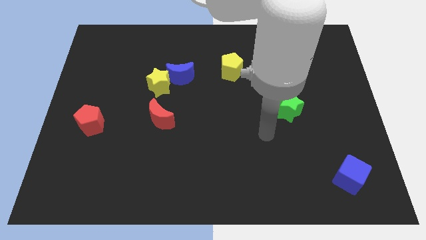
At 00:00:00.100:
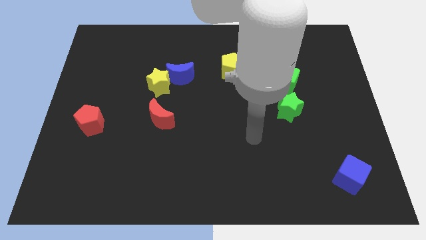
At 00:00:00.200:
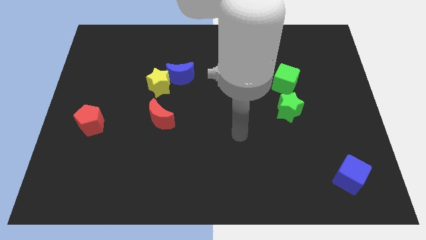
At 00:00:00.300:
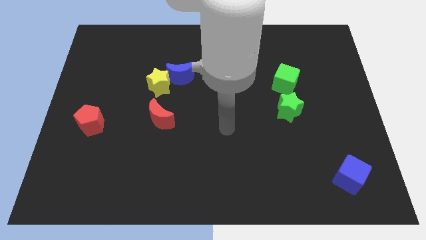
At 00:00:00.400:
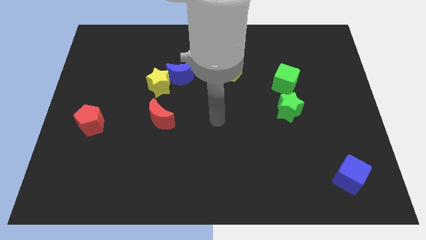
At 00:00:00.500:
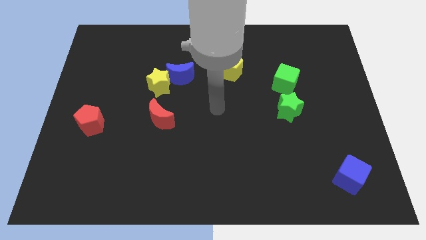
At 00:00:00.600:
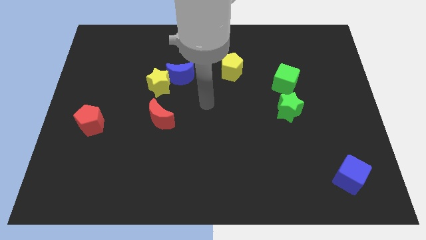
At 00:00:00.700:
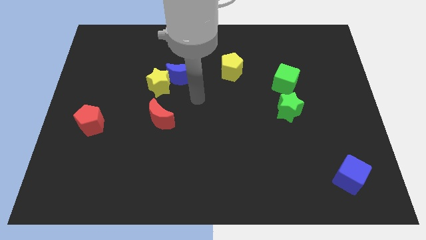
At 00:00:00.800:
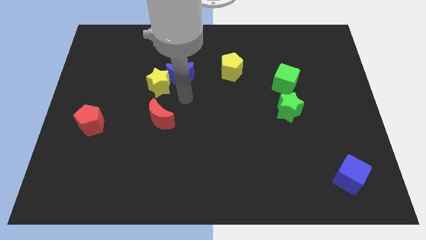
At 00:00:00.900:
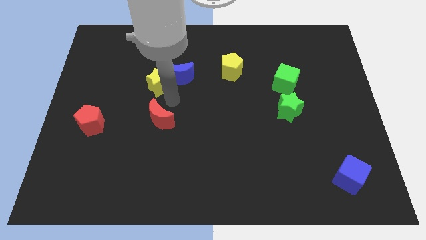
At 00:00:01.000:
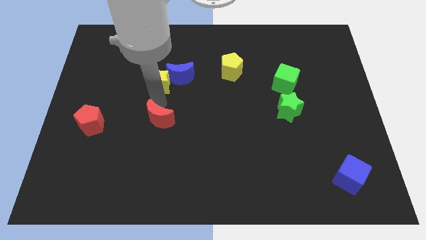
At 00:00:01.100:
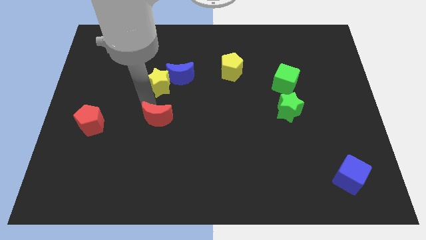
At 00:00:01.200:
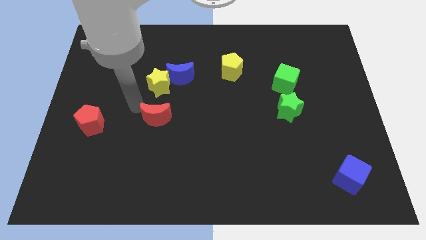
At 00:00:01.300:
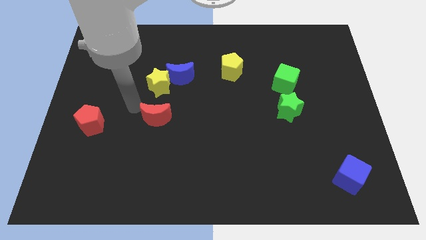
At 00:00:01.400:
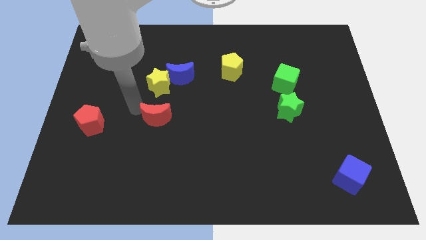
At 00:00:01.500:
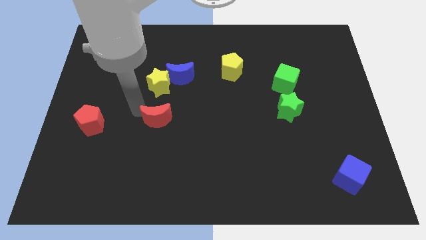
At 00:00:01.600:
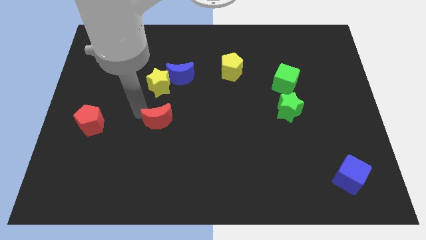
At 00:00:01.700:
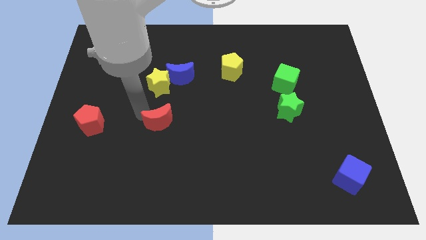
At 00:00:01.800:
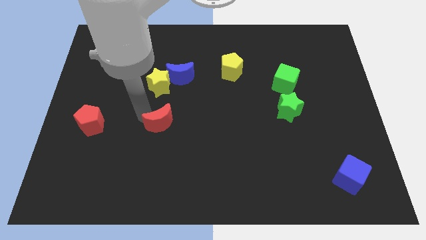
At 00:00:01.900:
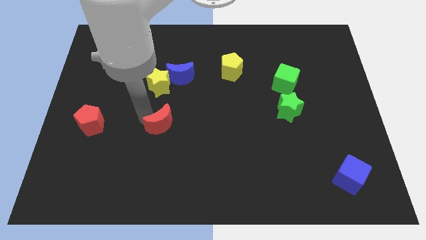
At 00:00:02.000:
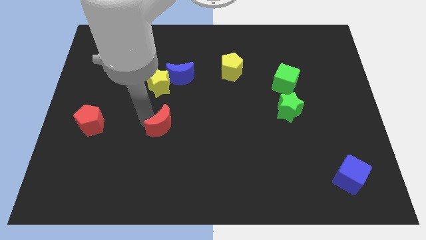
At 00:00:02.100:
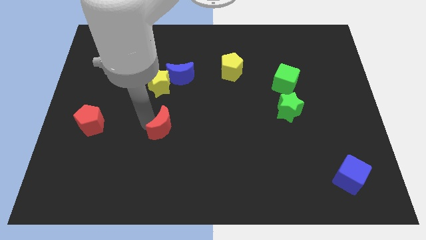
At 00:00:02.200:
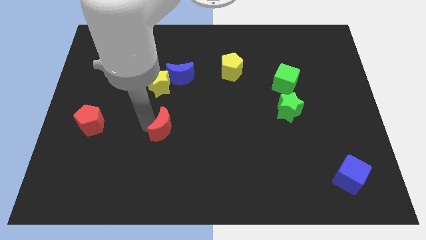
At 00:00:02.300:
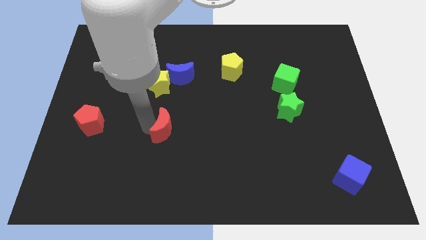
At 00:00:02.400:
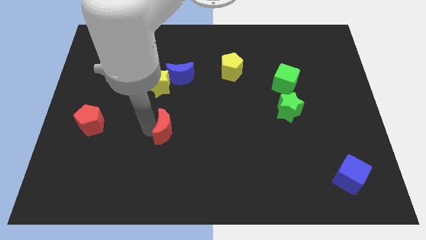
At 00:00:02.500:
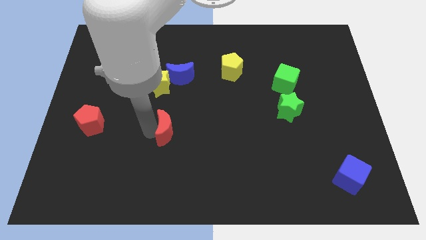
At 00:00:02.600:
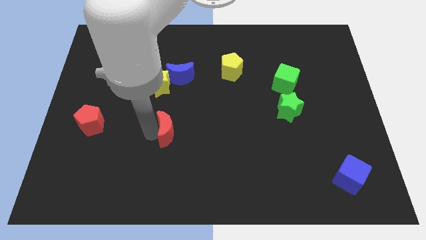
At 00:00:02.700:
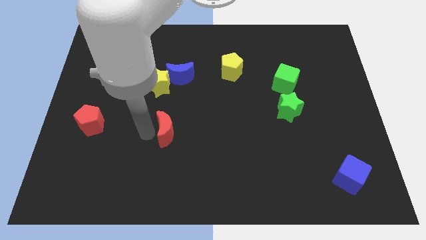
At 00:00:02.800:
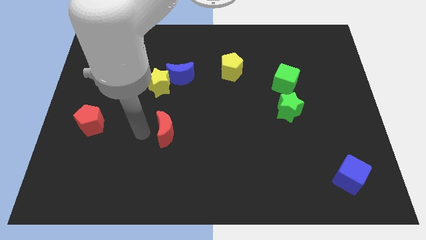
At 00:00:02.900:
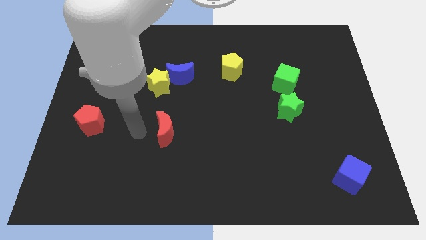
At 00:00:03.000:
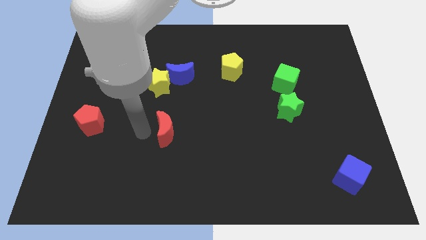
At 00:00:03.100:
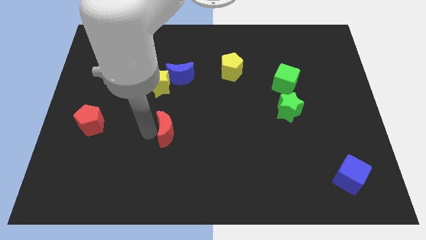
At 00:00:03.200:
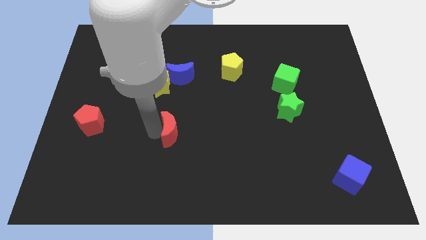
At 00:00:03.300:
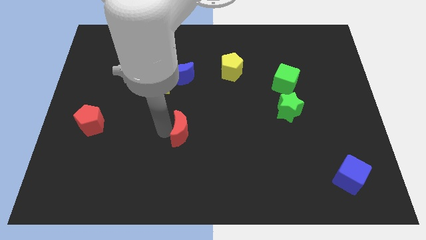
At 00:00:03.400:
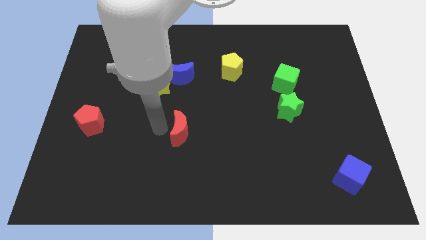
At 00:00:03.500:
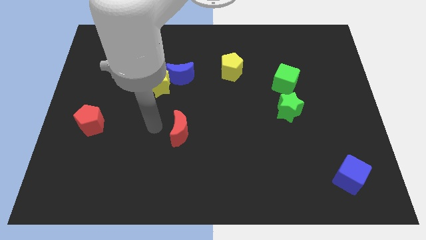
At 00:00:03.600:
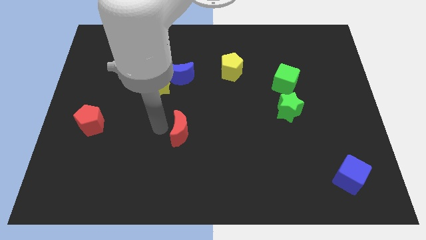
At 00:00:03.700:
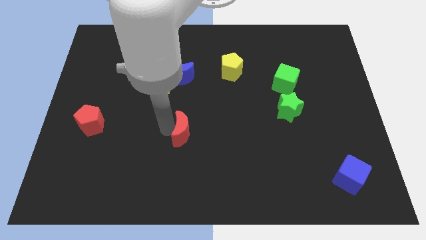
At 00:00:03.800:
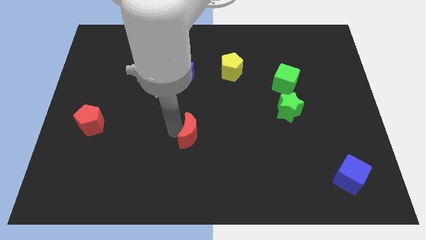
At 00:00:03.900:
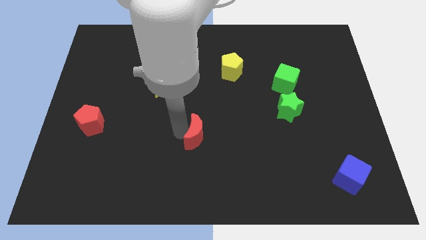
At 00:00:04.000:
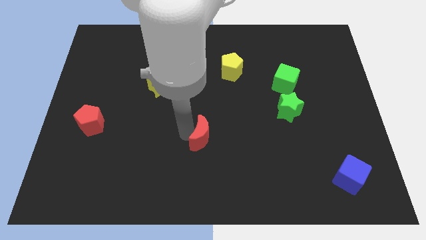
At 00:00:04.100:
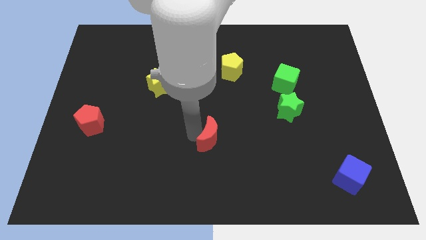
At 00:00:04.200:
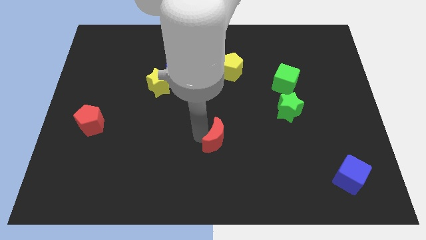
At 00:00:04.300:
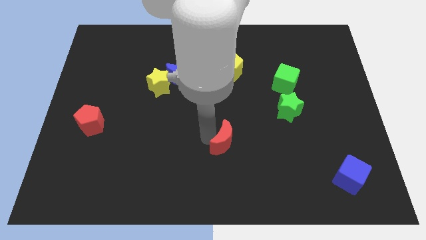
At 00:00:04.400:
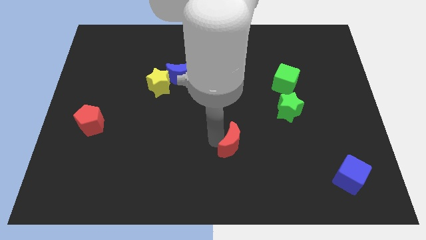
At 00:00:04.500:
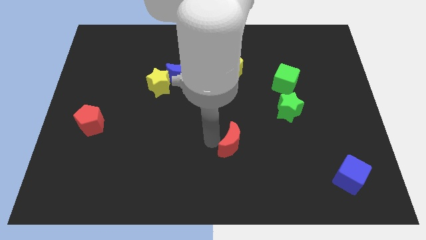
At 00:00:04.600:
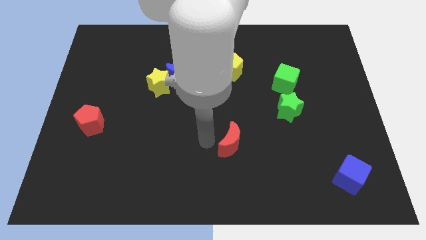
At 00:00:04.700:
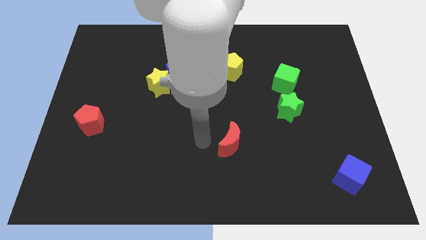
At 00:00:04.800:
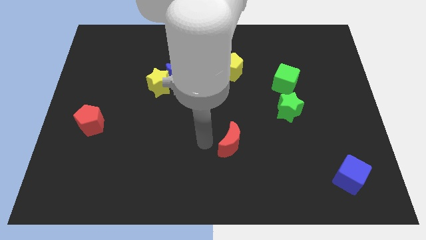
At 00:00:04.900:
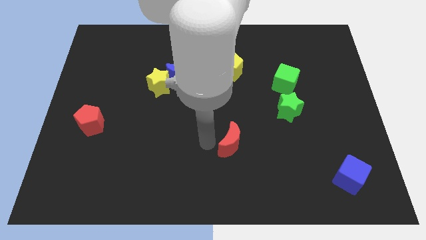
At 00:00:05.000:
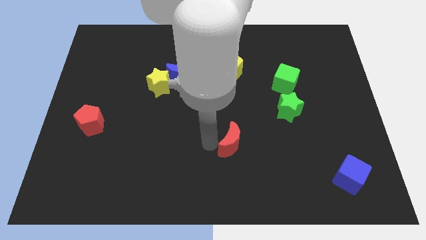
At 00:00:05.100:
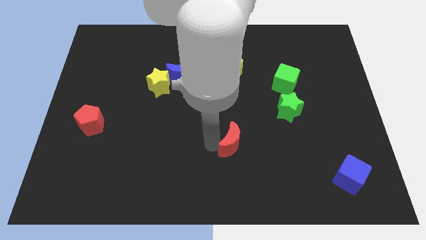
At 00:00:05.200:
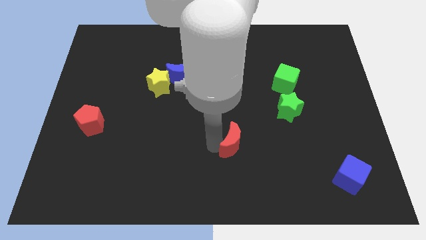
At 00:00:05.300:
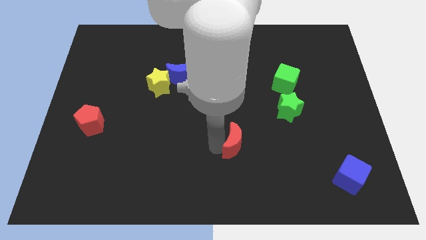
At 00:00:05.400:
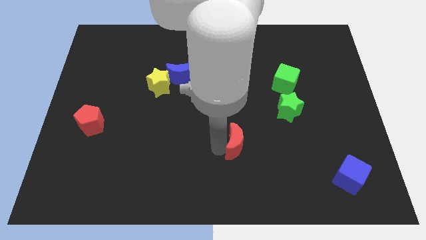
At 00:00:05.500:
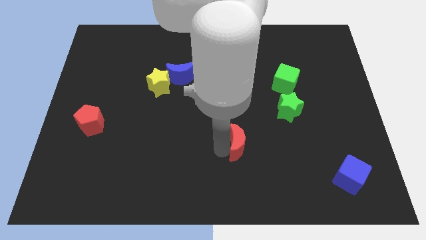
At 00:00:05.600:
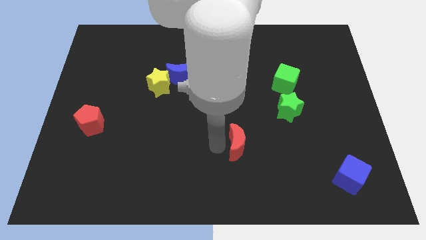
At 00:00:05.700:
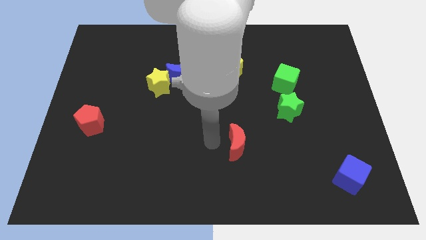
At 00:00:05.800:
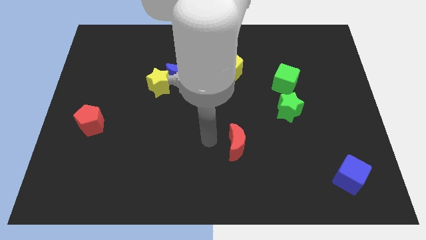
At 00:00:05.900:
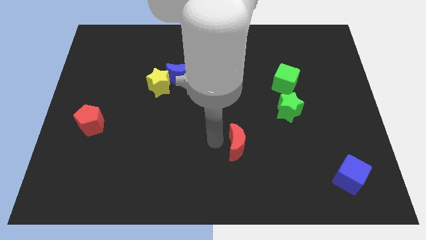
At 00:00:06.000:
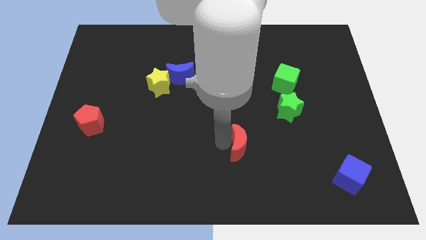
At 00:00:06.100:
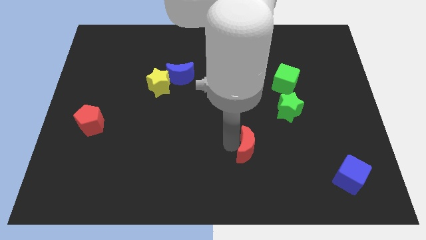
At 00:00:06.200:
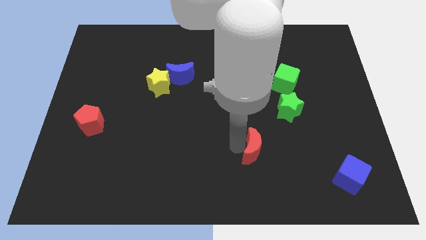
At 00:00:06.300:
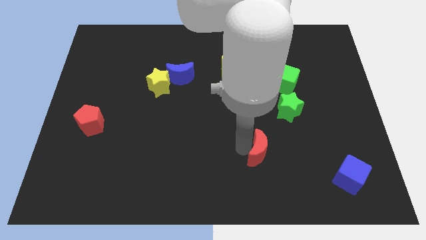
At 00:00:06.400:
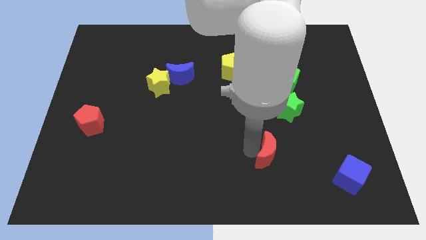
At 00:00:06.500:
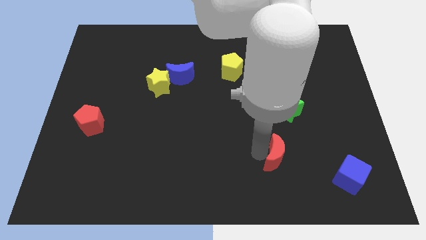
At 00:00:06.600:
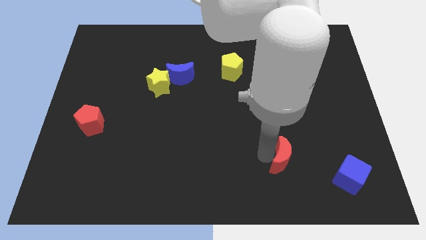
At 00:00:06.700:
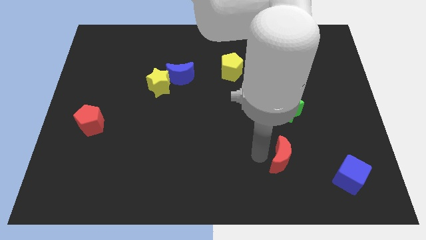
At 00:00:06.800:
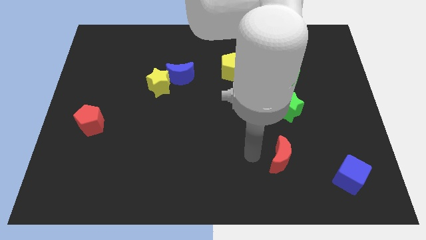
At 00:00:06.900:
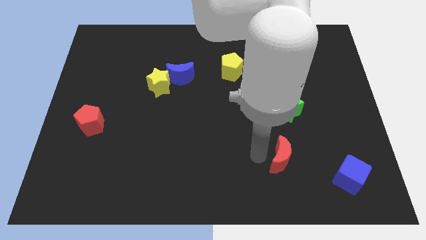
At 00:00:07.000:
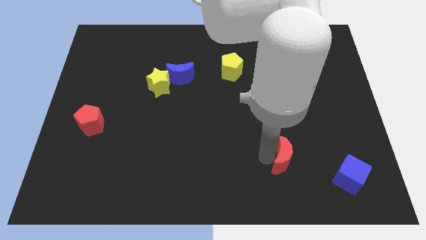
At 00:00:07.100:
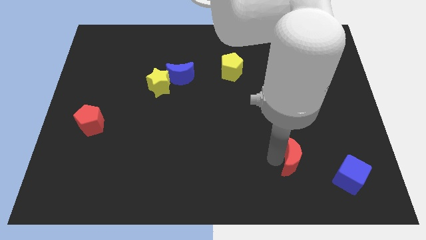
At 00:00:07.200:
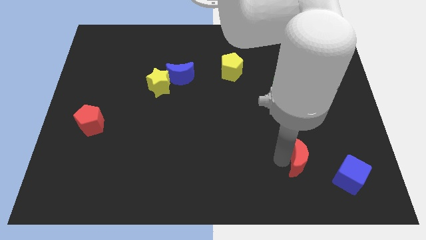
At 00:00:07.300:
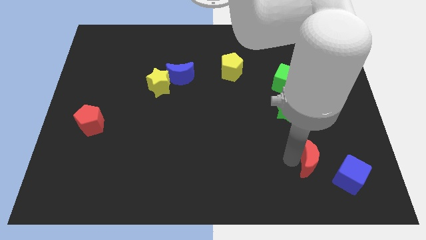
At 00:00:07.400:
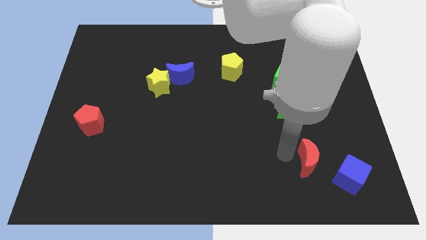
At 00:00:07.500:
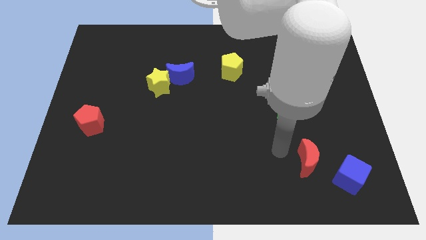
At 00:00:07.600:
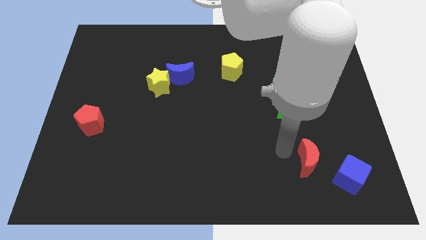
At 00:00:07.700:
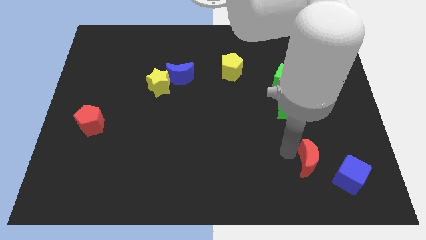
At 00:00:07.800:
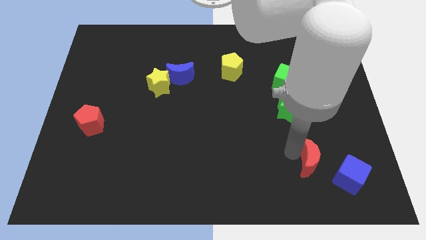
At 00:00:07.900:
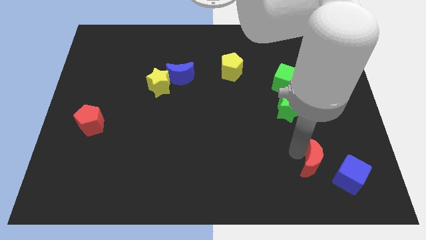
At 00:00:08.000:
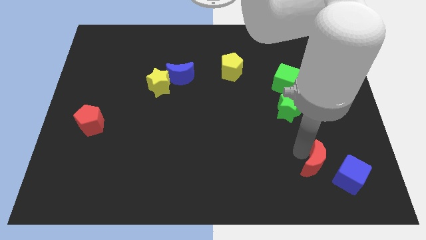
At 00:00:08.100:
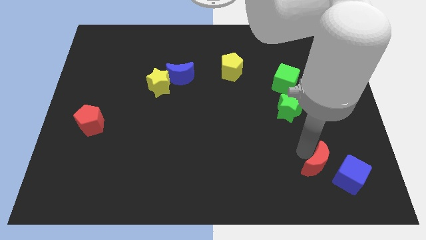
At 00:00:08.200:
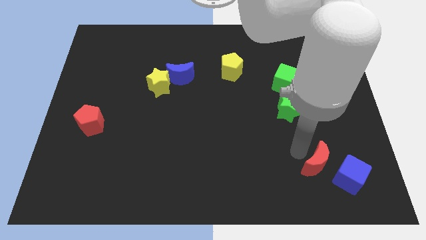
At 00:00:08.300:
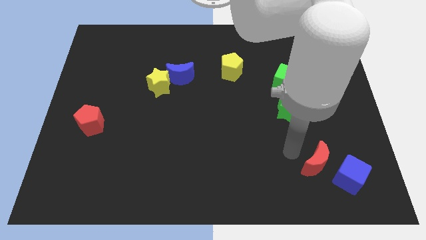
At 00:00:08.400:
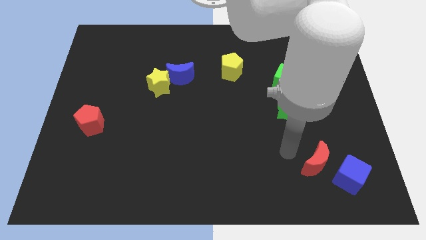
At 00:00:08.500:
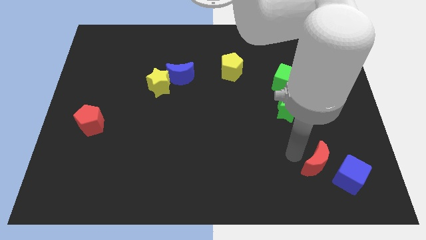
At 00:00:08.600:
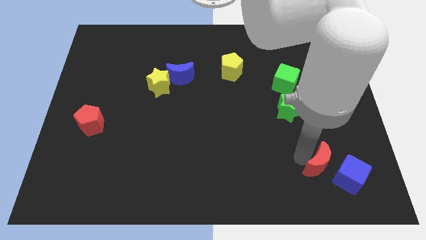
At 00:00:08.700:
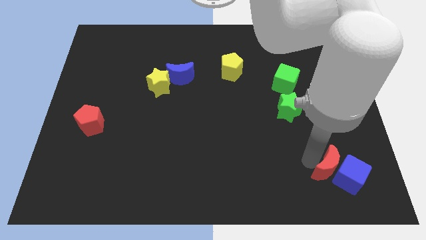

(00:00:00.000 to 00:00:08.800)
slide the red moon to the blue cube
